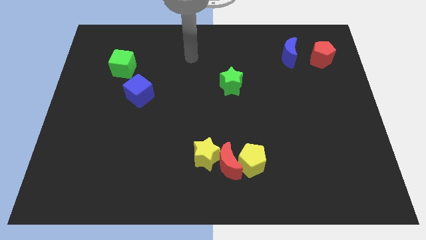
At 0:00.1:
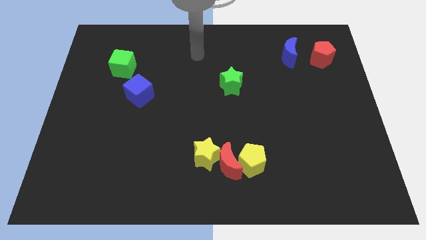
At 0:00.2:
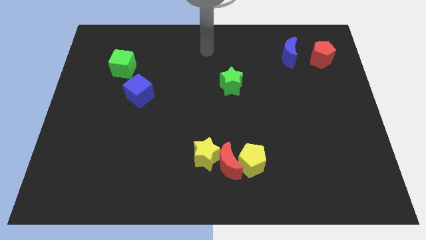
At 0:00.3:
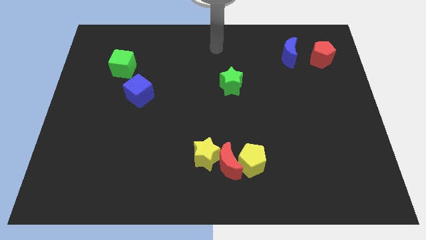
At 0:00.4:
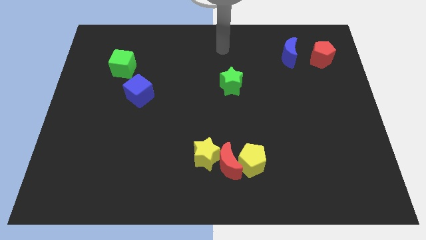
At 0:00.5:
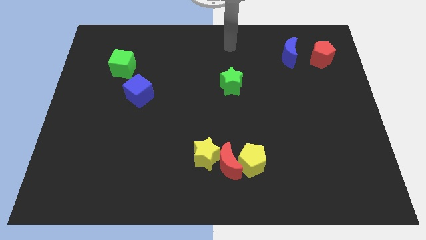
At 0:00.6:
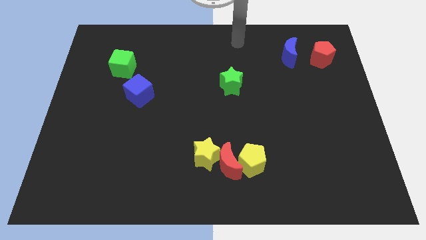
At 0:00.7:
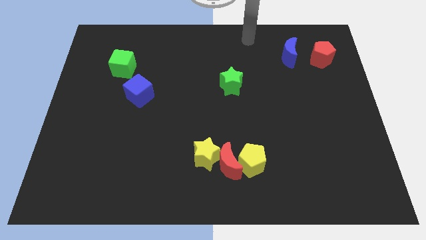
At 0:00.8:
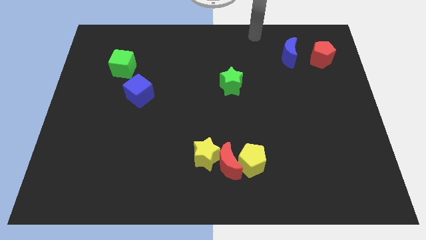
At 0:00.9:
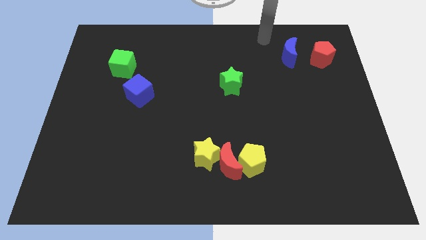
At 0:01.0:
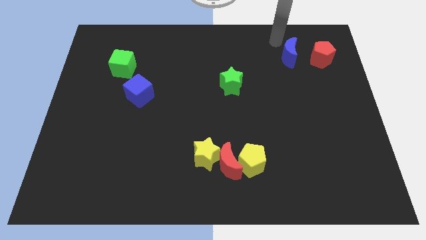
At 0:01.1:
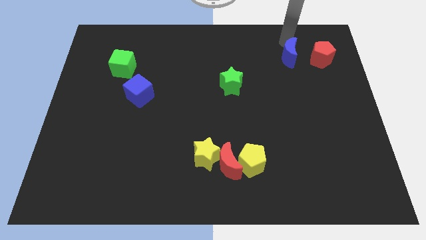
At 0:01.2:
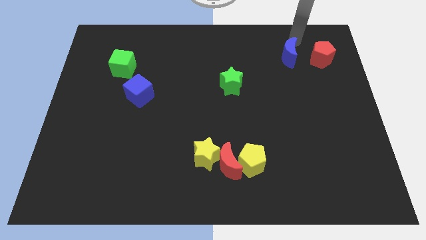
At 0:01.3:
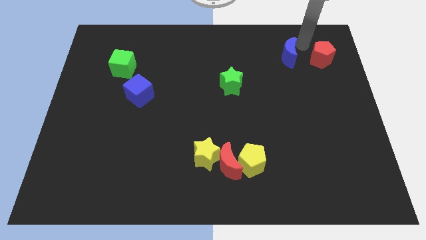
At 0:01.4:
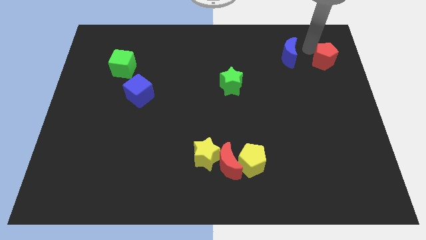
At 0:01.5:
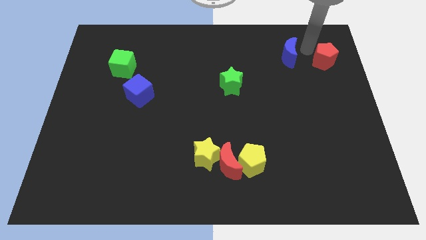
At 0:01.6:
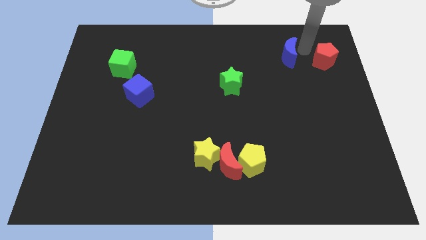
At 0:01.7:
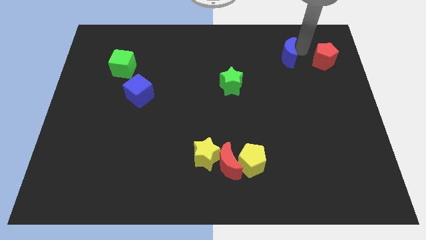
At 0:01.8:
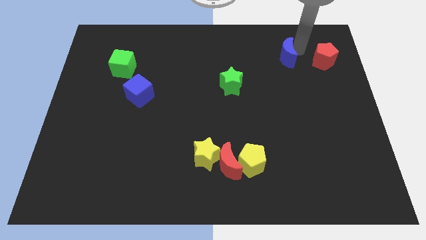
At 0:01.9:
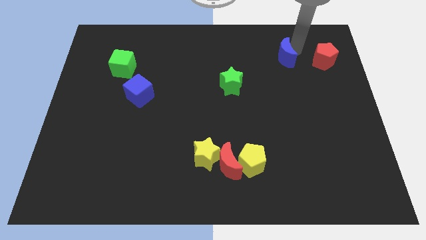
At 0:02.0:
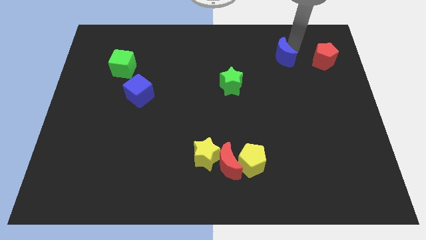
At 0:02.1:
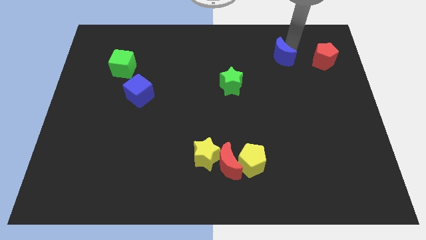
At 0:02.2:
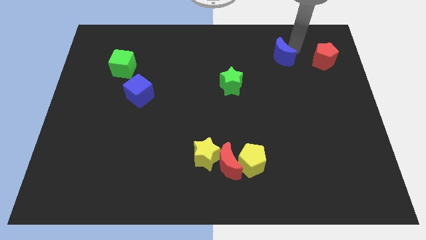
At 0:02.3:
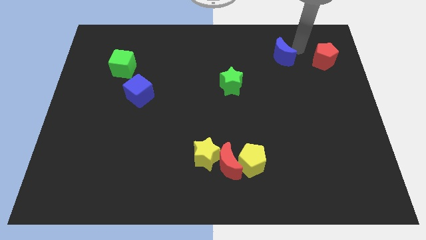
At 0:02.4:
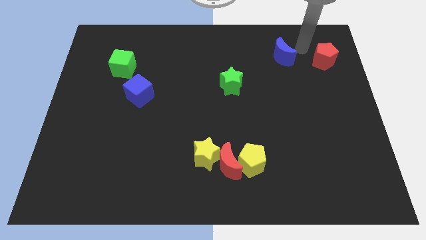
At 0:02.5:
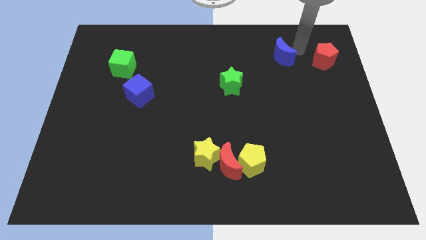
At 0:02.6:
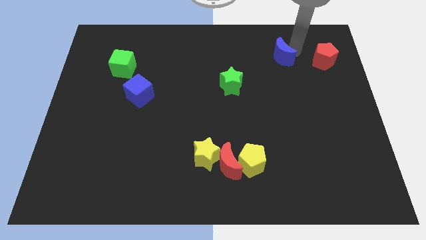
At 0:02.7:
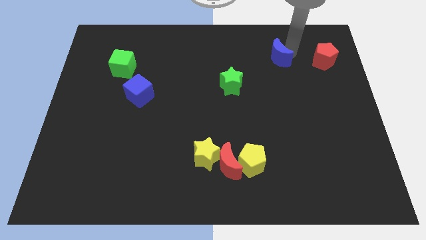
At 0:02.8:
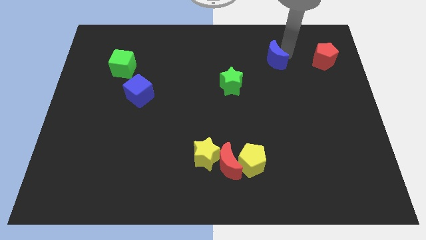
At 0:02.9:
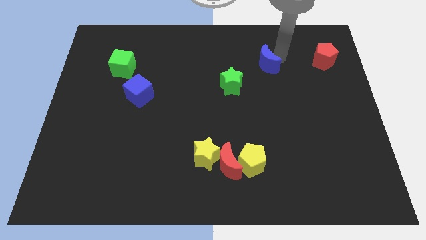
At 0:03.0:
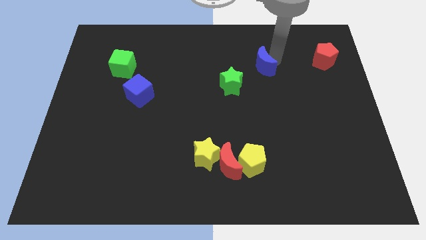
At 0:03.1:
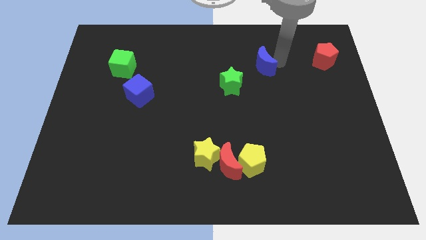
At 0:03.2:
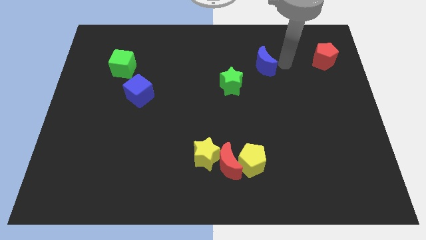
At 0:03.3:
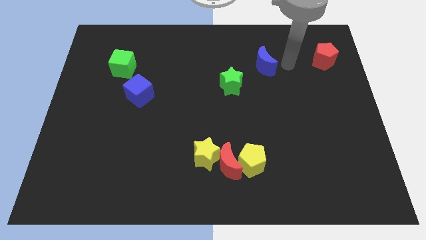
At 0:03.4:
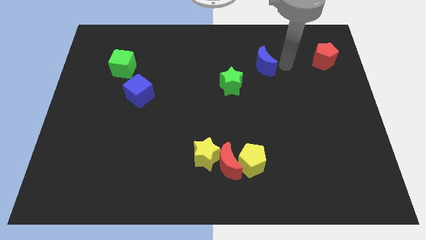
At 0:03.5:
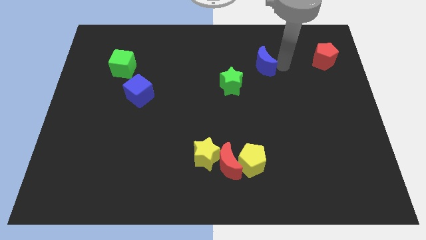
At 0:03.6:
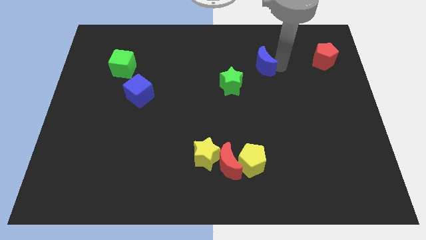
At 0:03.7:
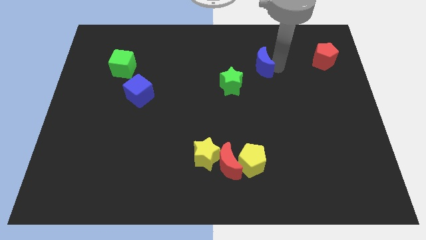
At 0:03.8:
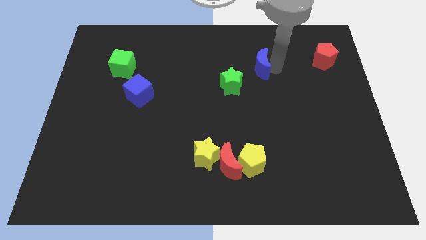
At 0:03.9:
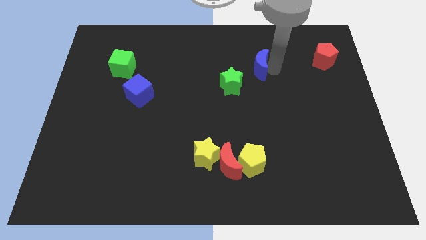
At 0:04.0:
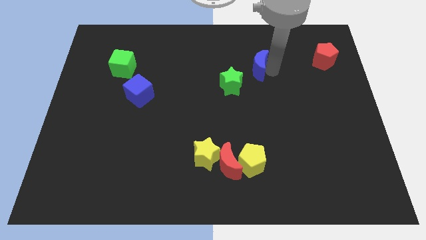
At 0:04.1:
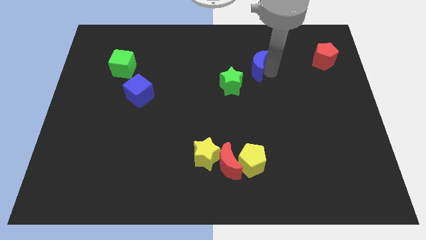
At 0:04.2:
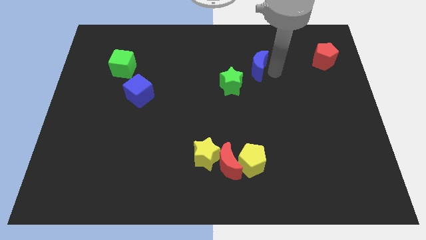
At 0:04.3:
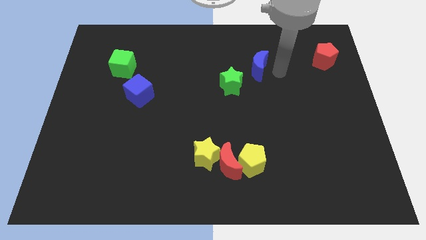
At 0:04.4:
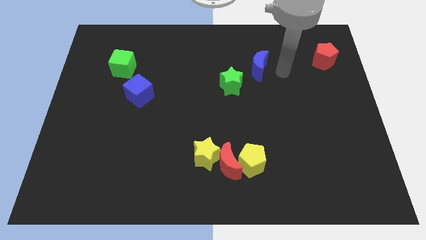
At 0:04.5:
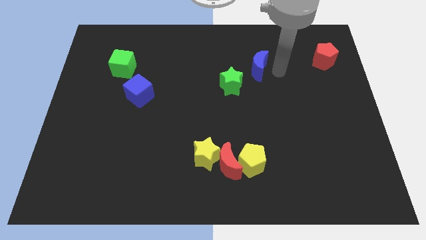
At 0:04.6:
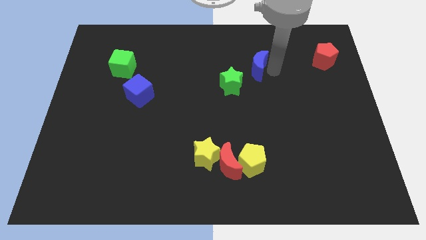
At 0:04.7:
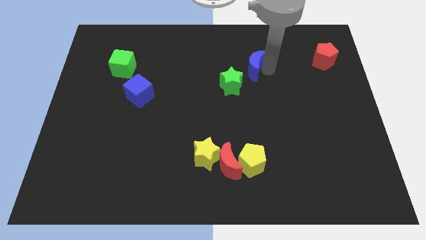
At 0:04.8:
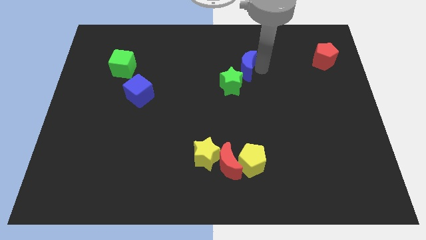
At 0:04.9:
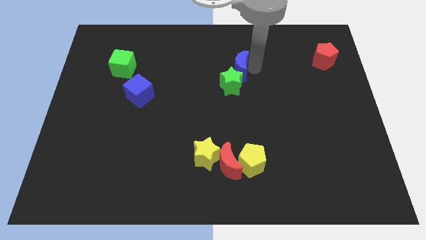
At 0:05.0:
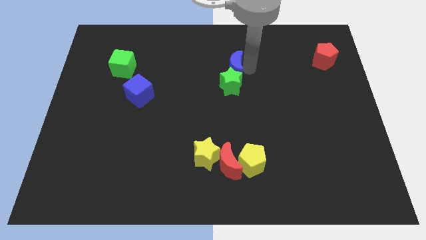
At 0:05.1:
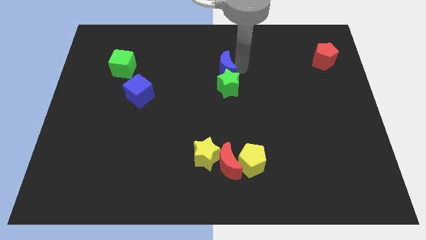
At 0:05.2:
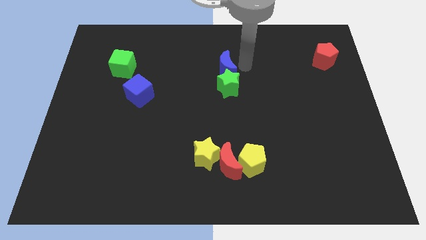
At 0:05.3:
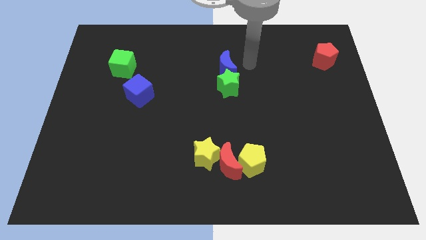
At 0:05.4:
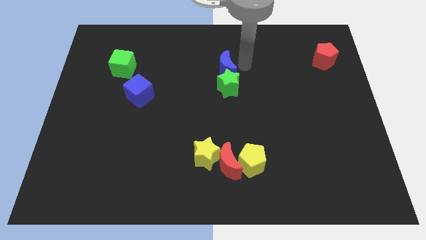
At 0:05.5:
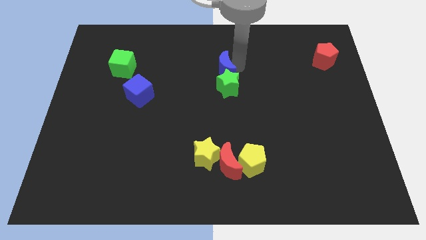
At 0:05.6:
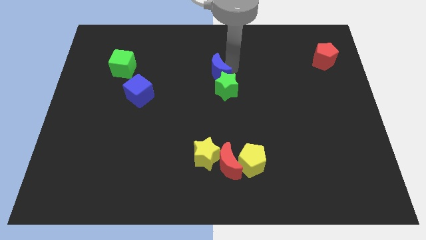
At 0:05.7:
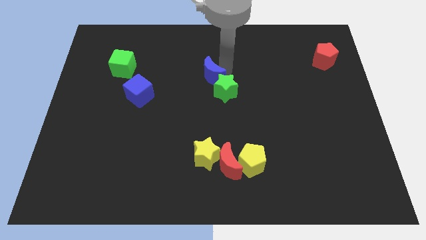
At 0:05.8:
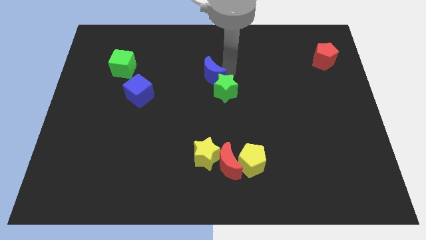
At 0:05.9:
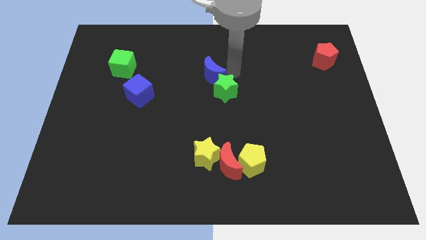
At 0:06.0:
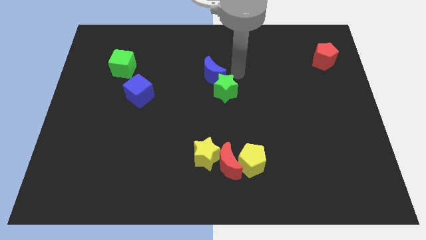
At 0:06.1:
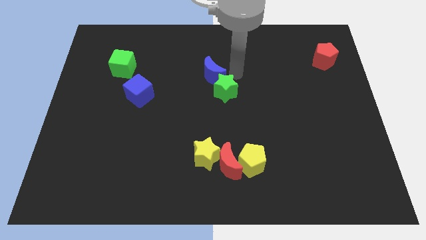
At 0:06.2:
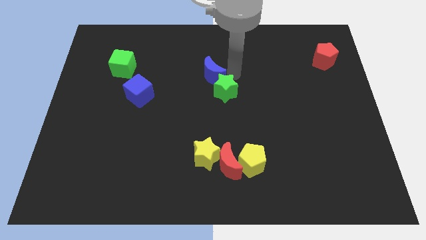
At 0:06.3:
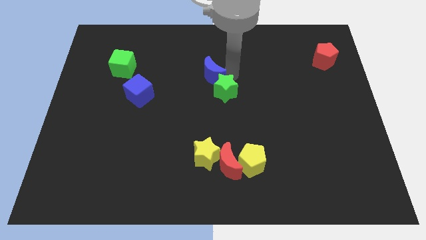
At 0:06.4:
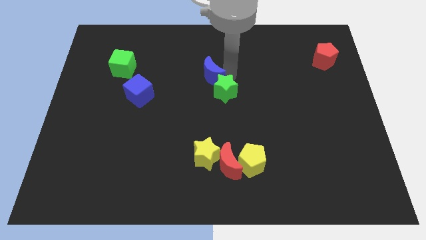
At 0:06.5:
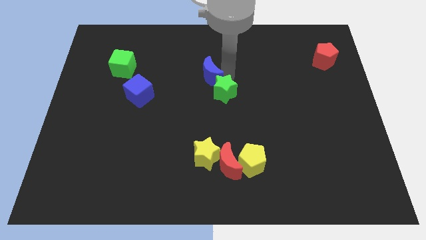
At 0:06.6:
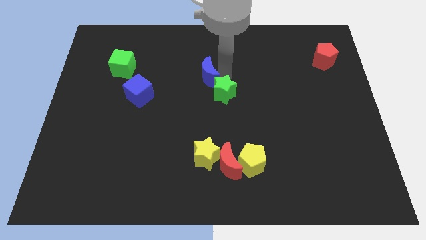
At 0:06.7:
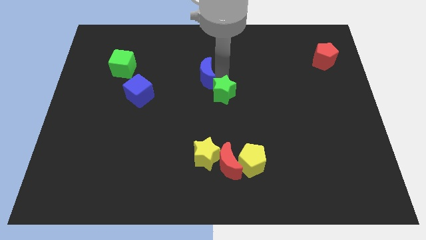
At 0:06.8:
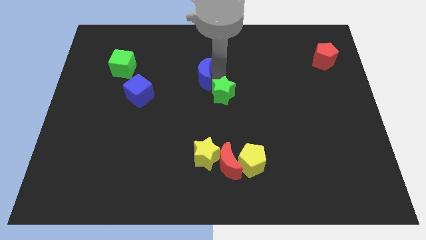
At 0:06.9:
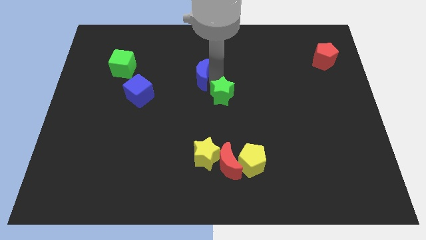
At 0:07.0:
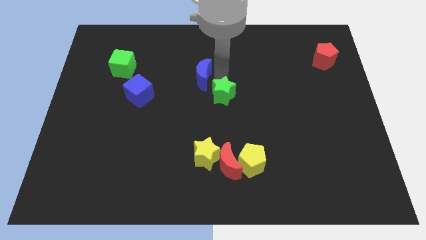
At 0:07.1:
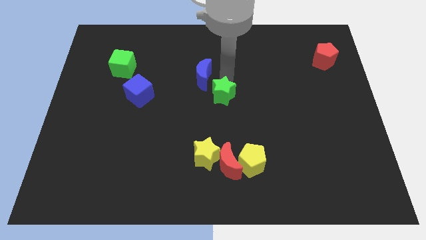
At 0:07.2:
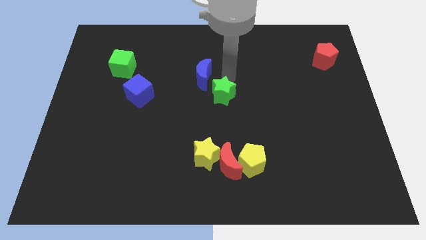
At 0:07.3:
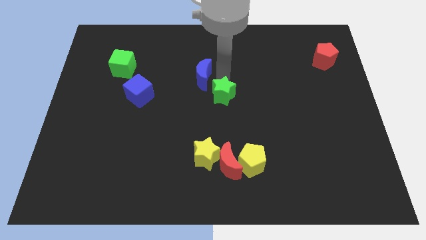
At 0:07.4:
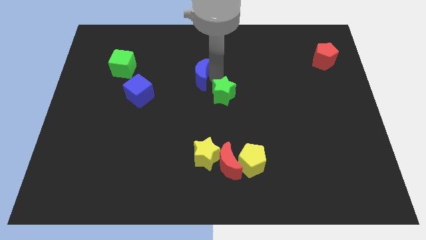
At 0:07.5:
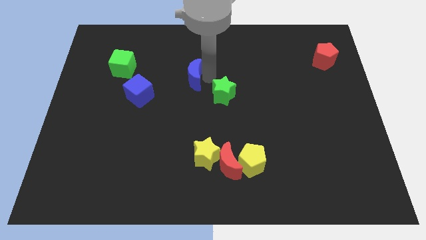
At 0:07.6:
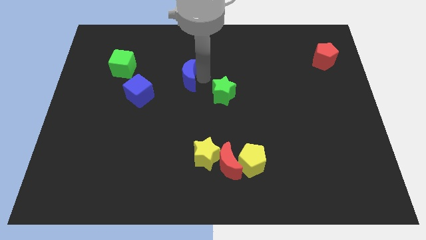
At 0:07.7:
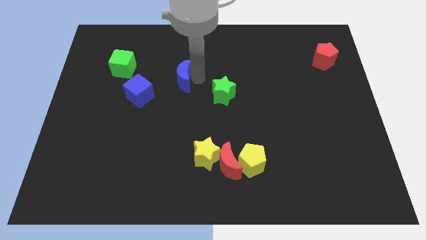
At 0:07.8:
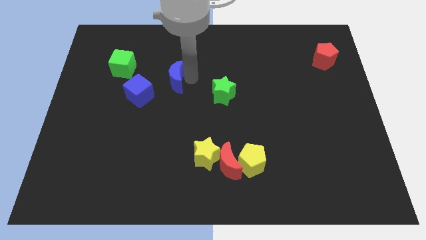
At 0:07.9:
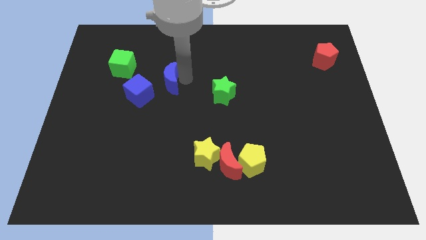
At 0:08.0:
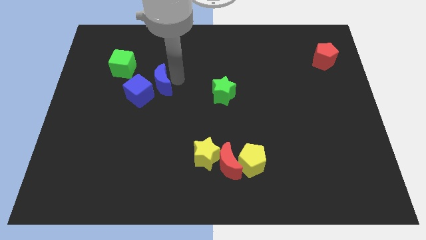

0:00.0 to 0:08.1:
move the blue moon next to the blue cube
